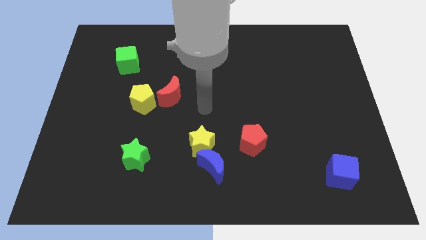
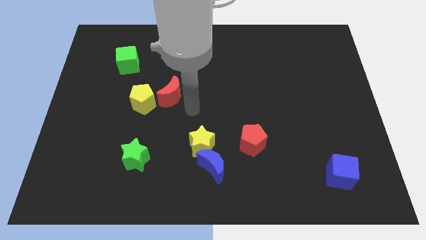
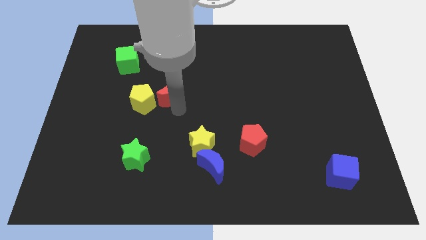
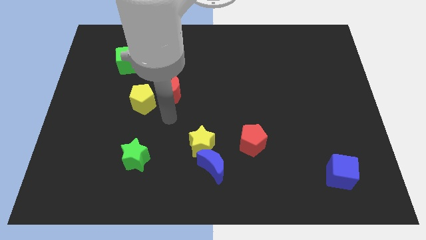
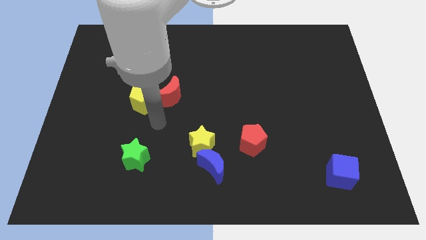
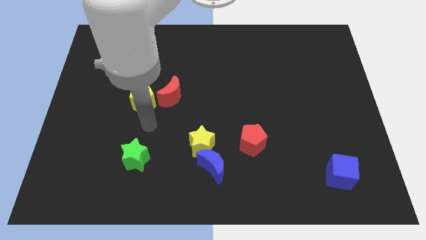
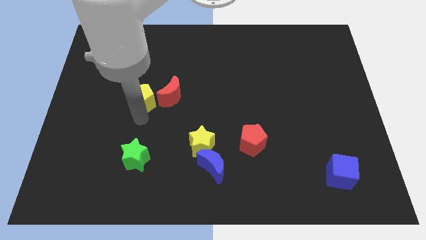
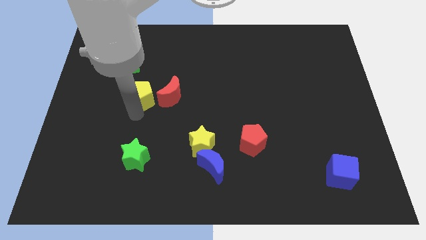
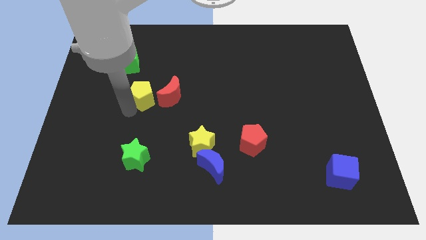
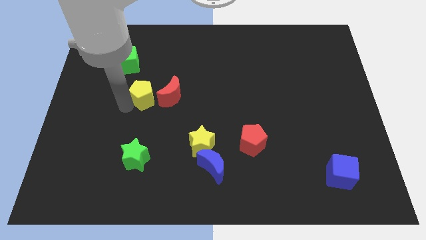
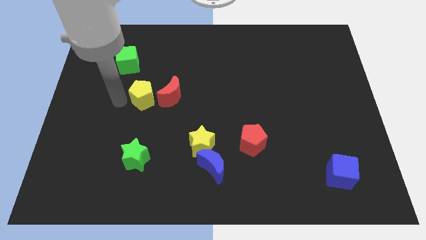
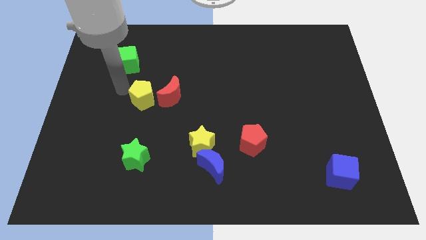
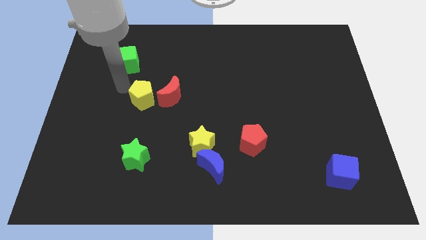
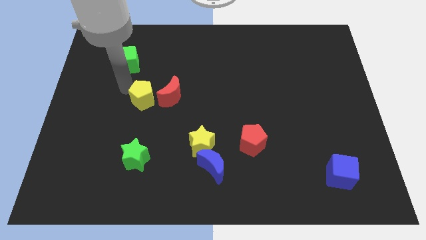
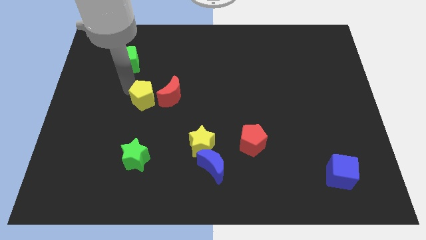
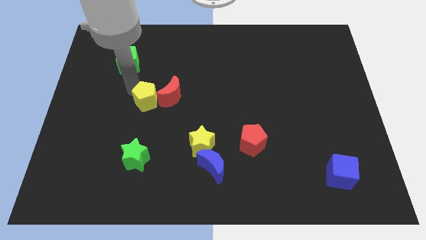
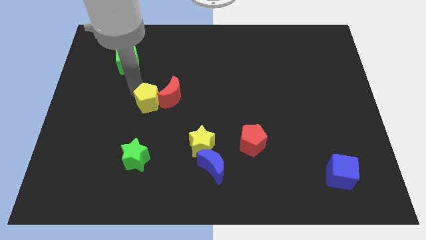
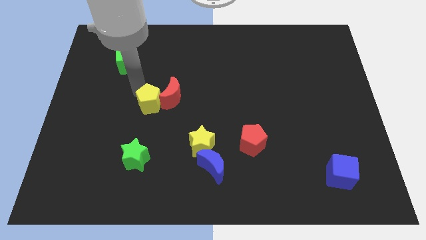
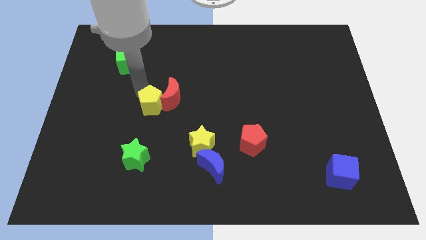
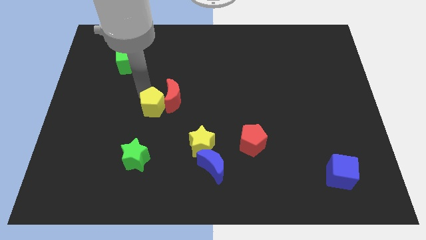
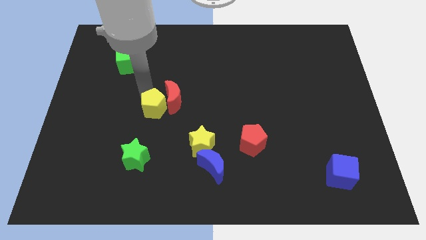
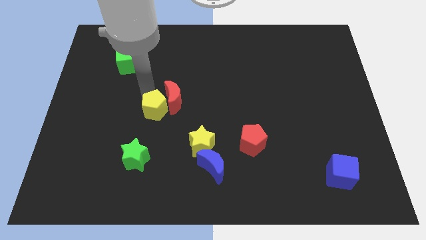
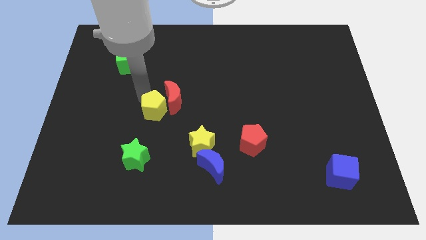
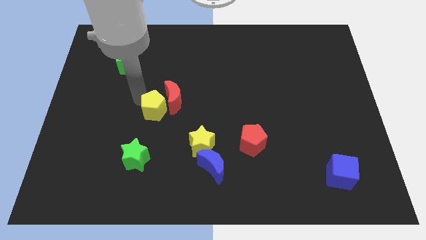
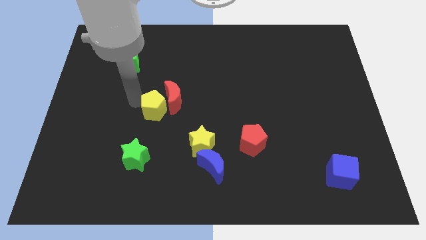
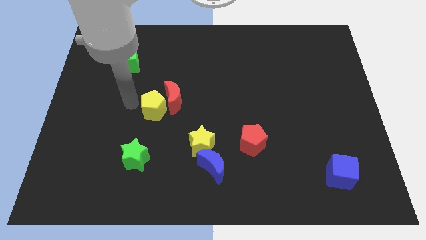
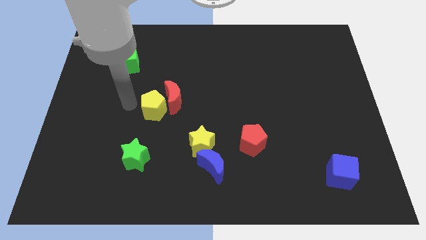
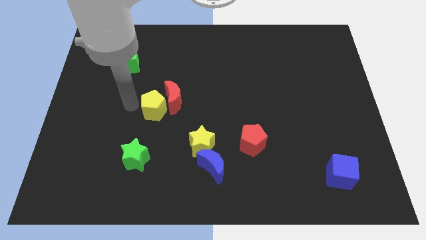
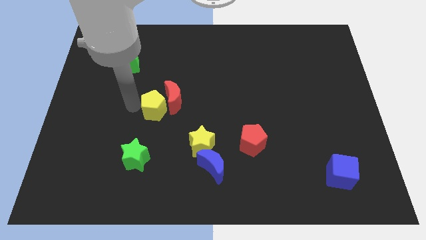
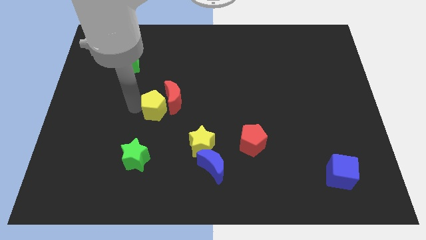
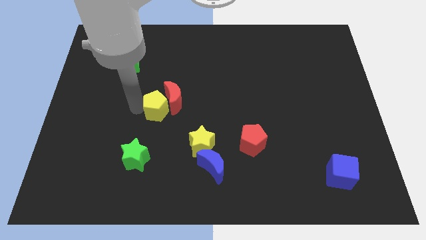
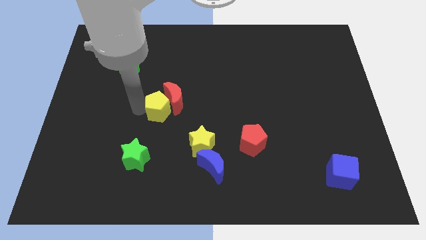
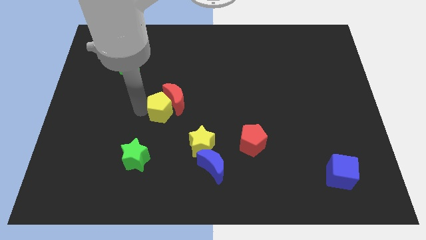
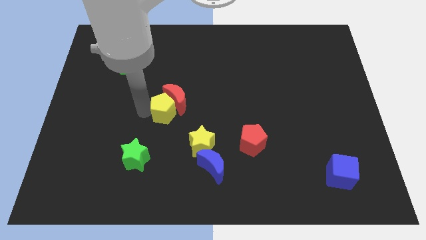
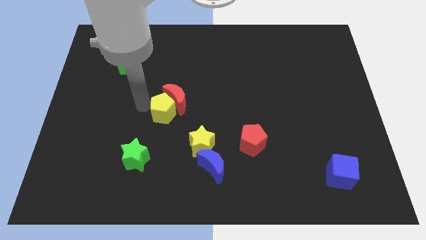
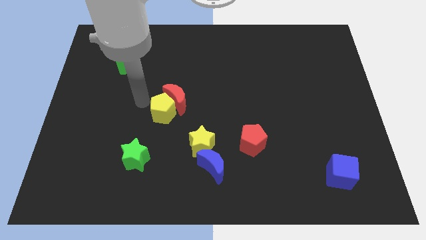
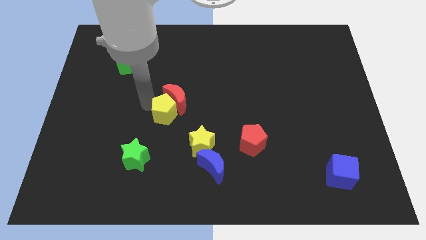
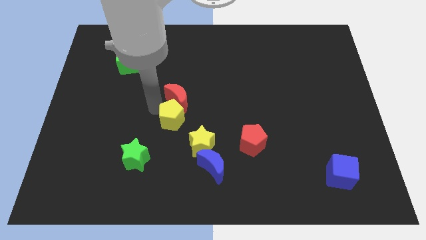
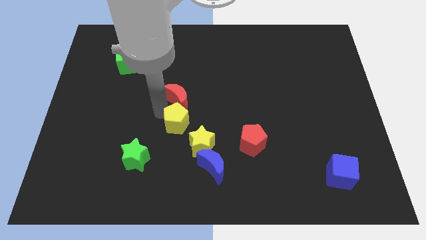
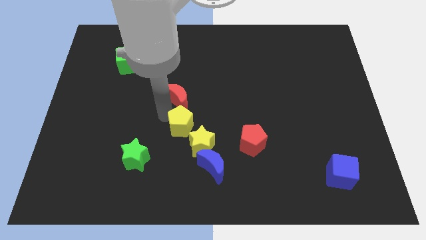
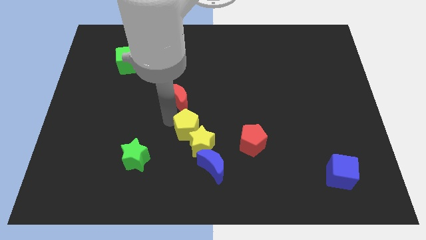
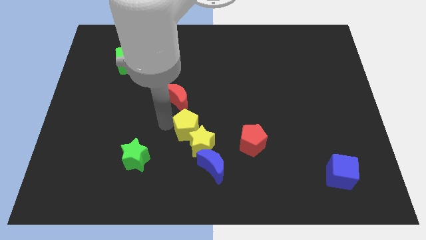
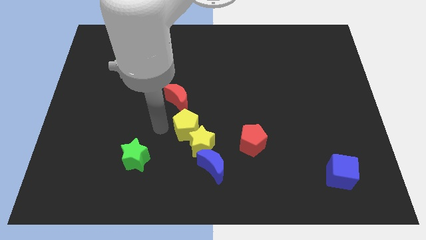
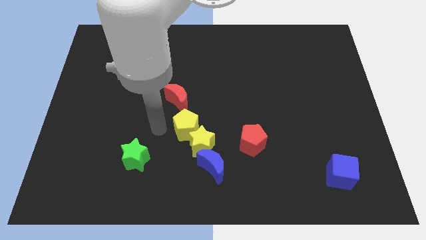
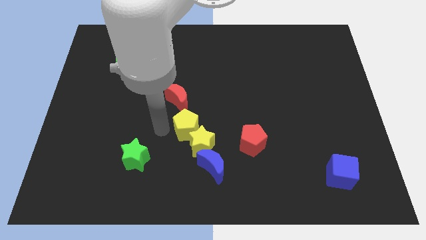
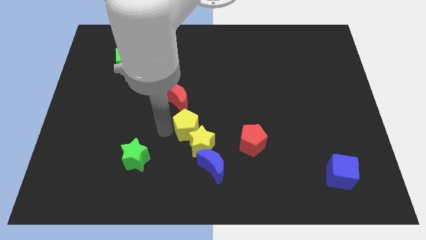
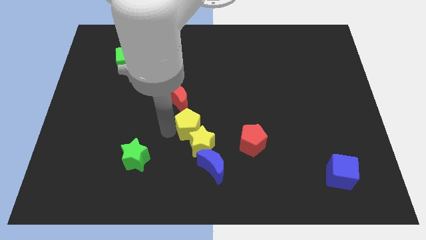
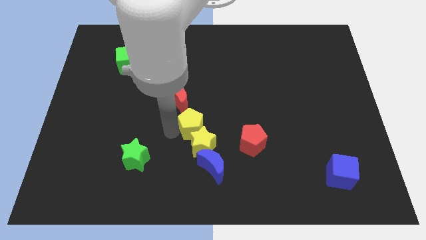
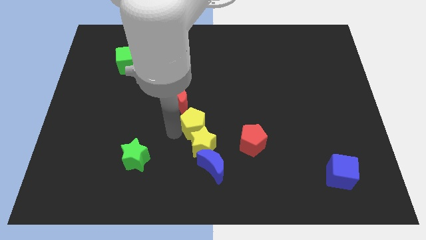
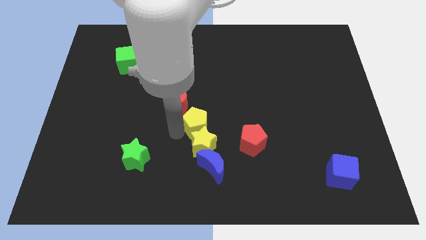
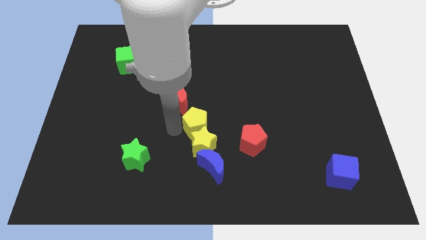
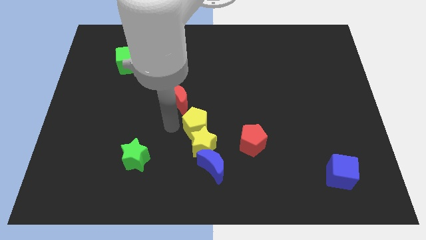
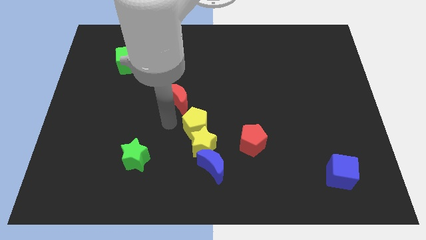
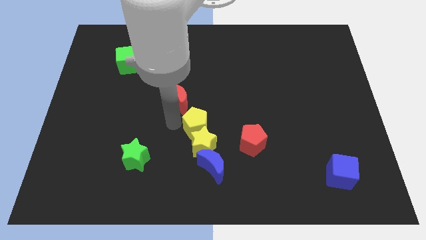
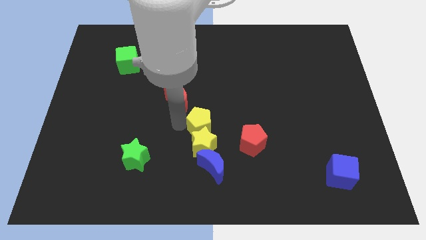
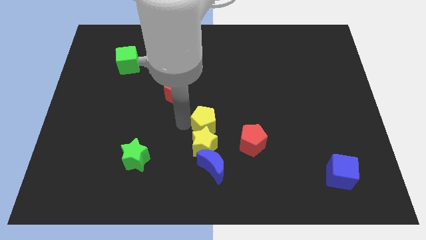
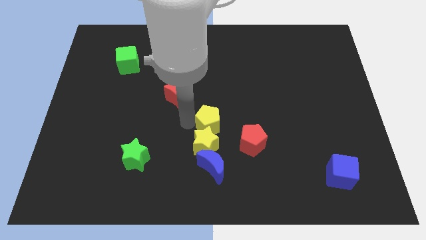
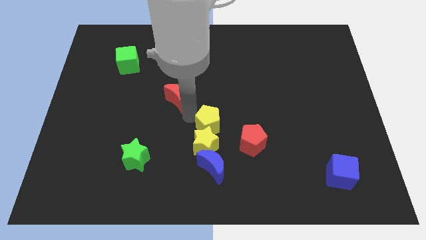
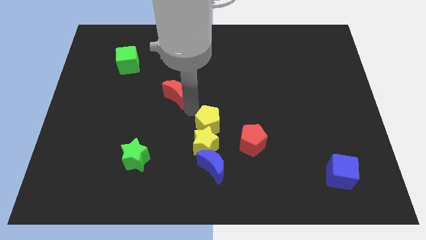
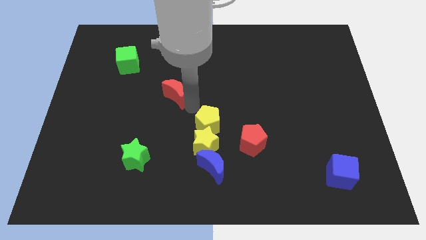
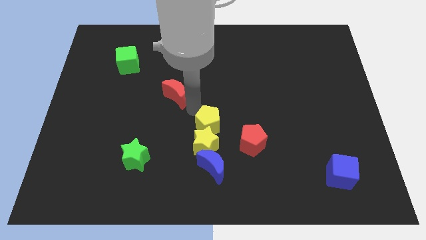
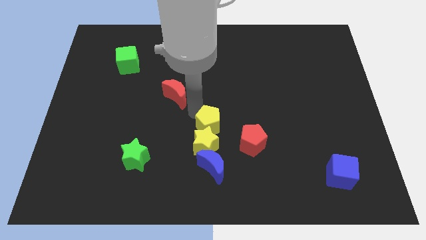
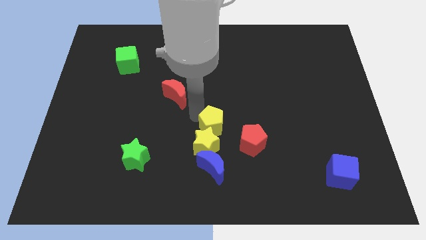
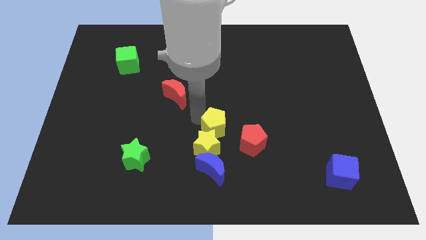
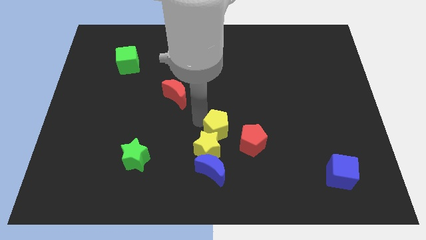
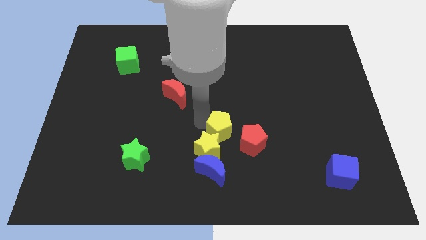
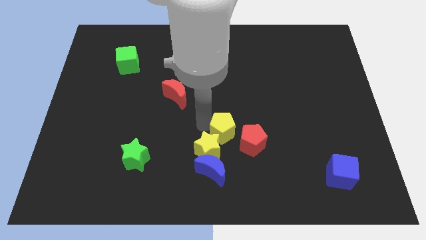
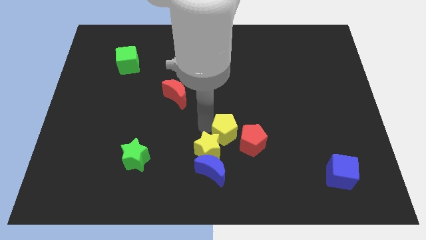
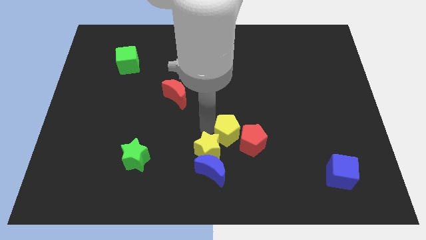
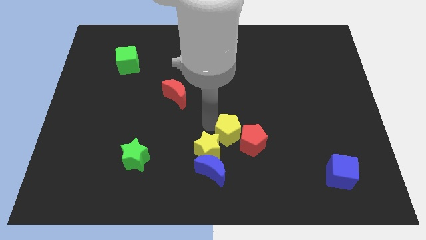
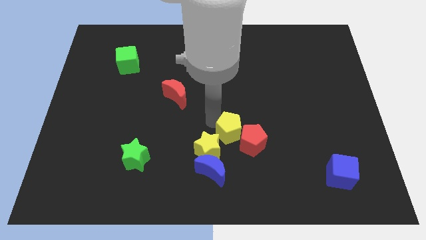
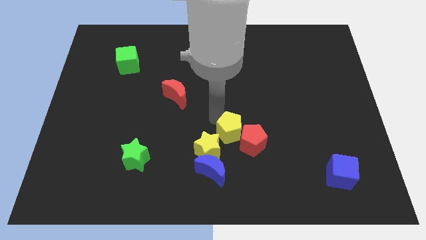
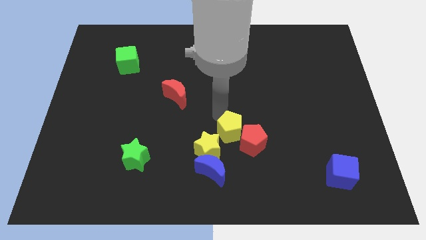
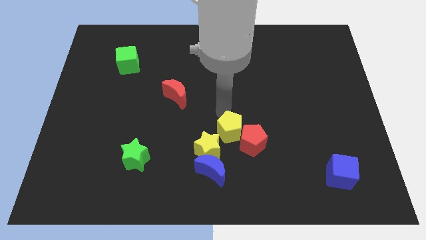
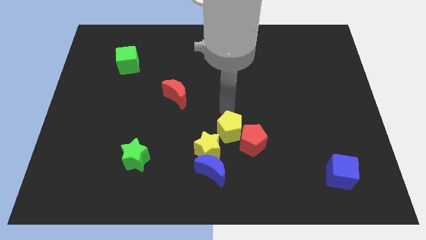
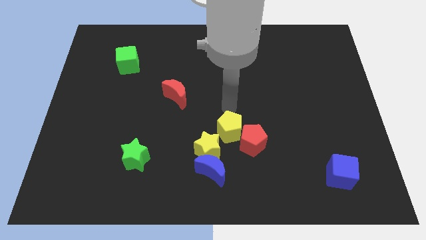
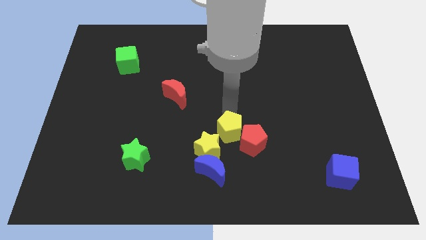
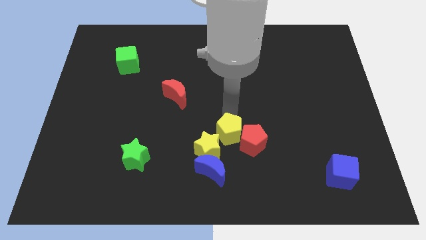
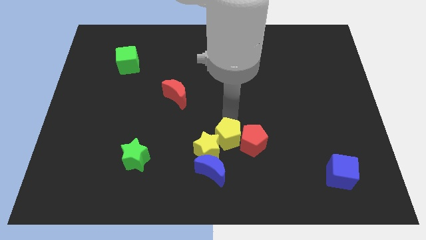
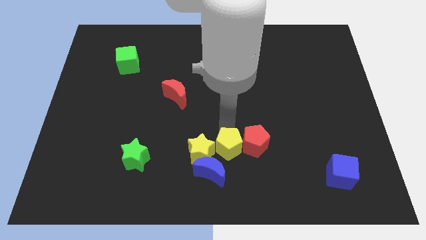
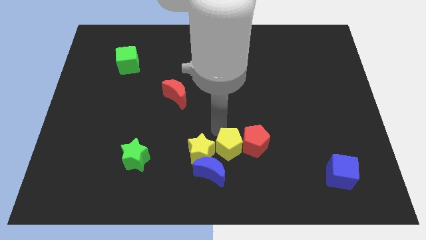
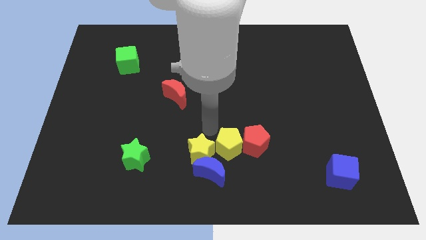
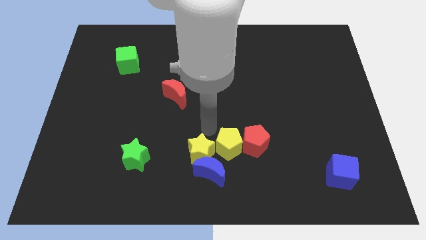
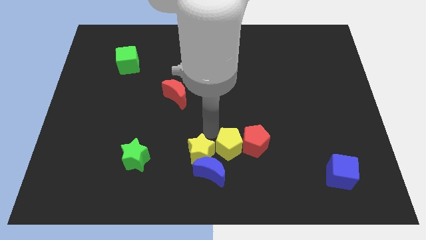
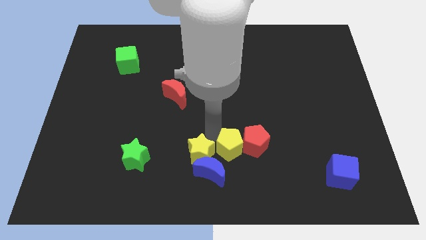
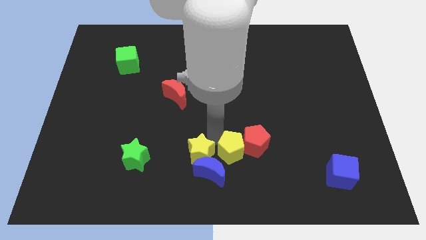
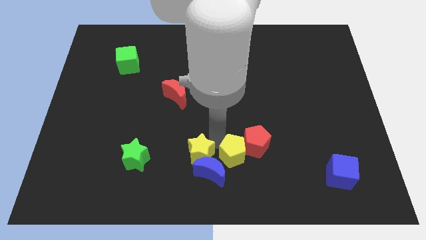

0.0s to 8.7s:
push the yellow pentagon to the right side of the blue moon
